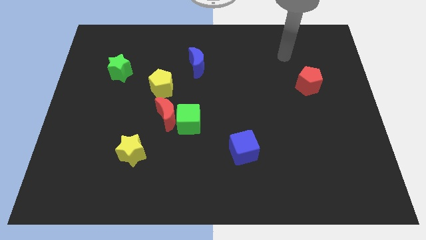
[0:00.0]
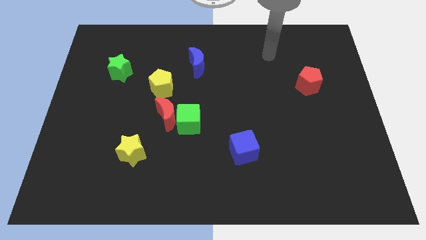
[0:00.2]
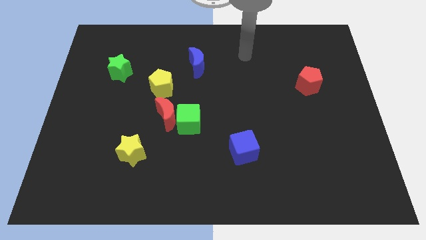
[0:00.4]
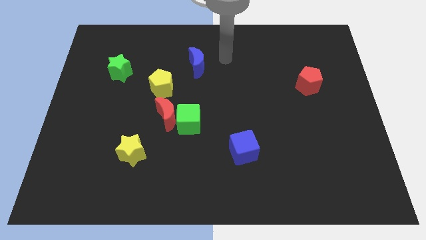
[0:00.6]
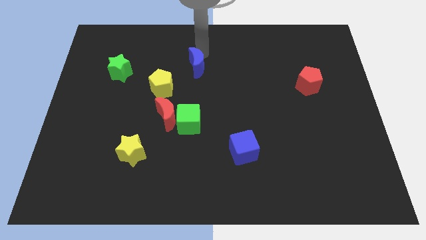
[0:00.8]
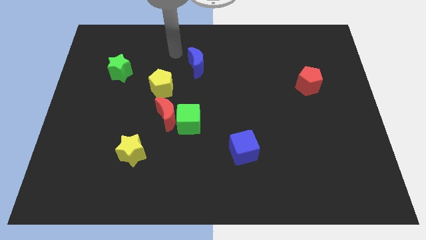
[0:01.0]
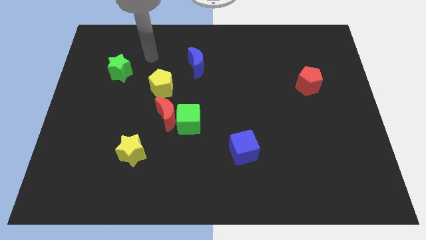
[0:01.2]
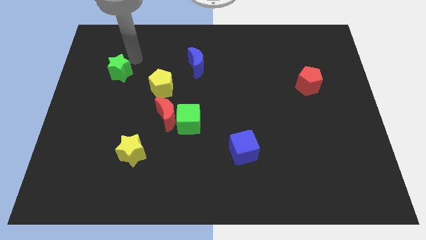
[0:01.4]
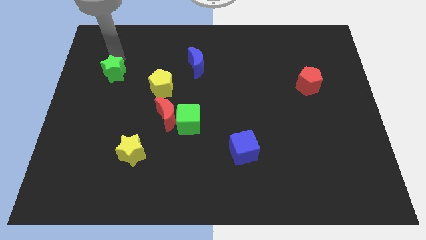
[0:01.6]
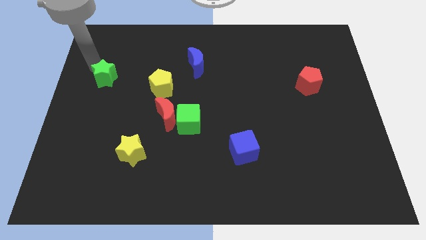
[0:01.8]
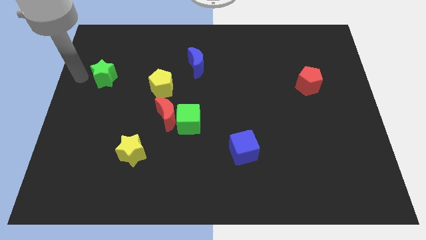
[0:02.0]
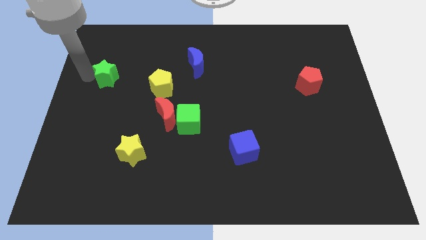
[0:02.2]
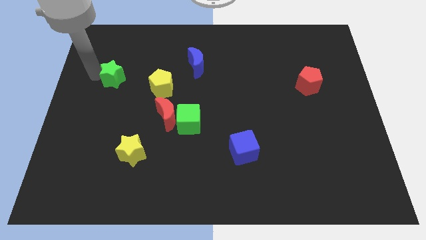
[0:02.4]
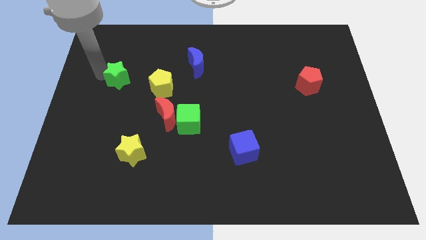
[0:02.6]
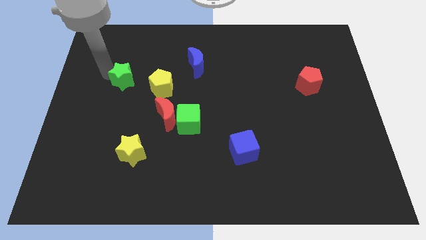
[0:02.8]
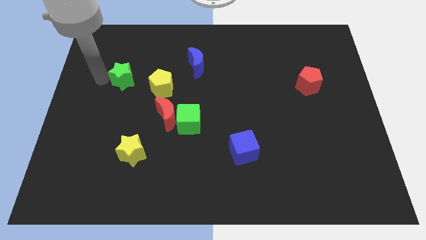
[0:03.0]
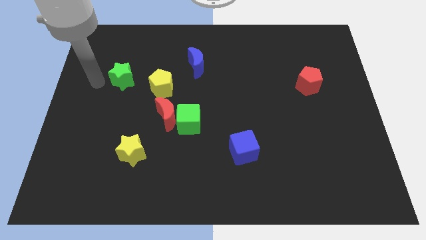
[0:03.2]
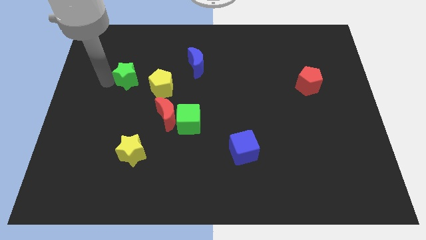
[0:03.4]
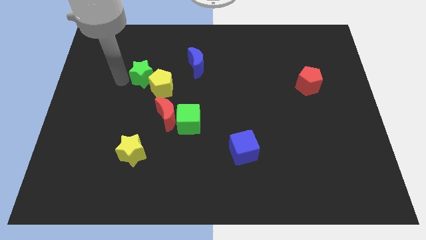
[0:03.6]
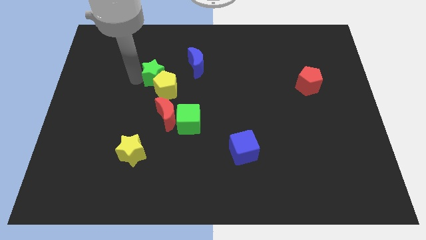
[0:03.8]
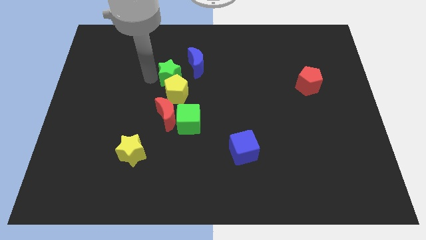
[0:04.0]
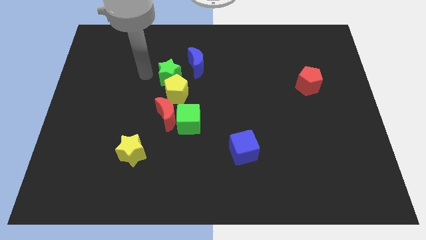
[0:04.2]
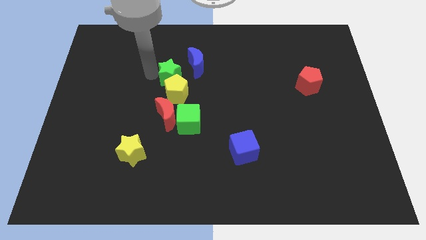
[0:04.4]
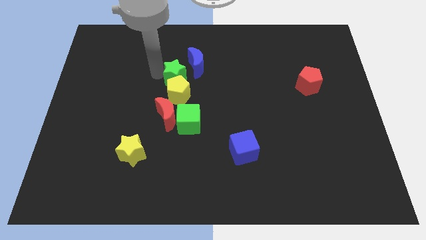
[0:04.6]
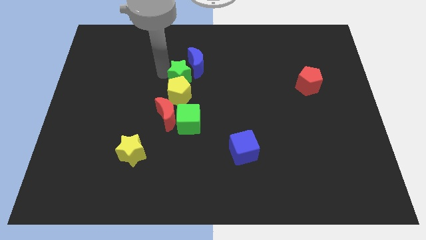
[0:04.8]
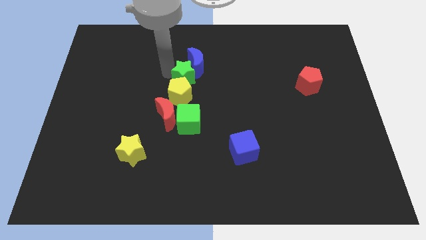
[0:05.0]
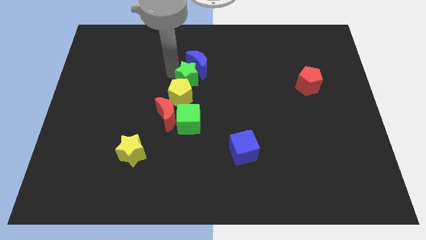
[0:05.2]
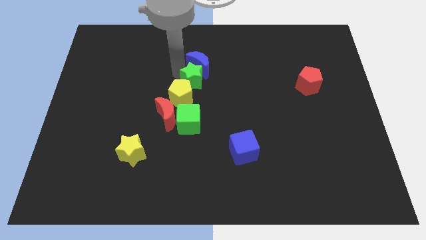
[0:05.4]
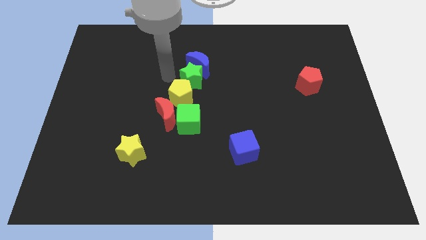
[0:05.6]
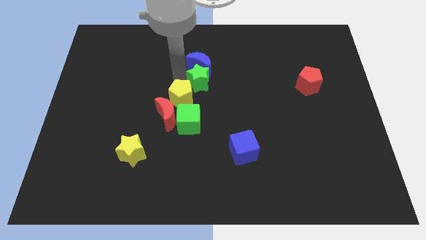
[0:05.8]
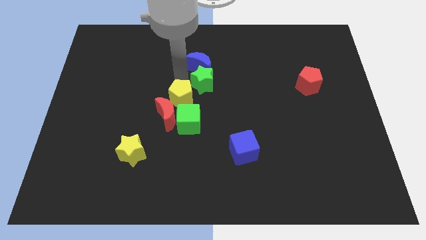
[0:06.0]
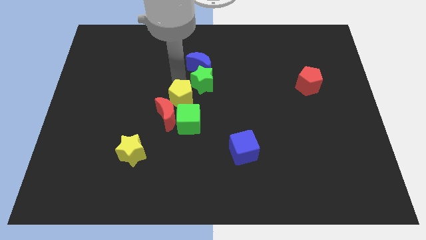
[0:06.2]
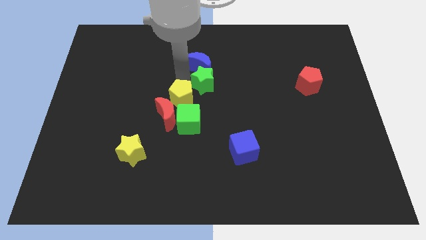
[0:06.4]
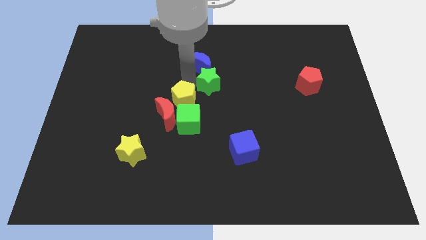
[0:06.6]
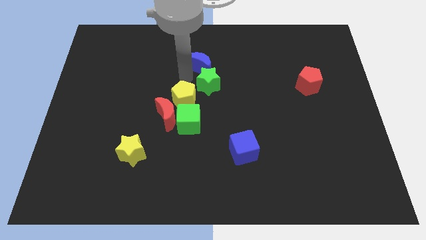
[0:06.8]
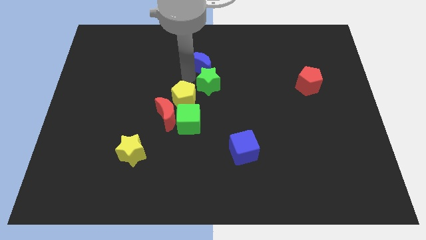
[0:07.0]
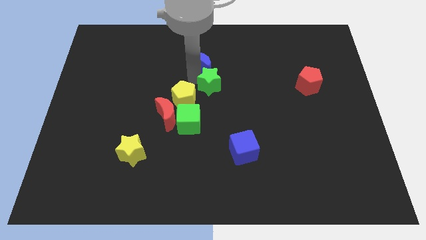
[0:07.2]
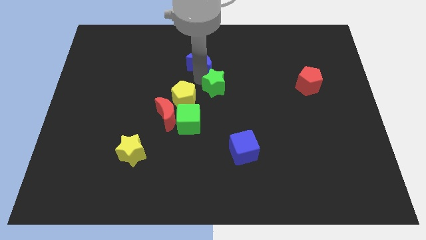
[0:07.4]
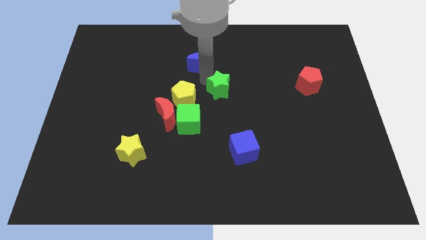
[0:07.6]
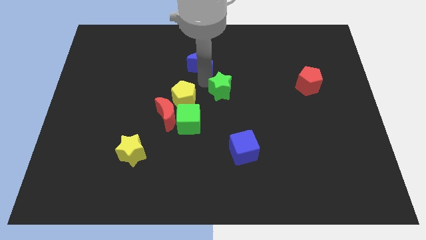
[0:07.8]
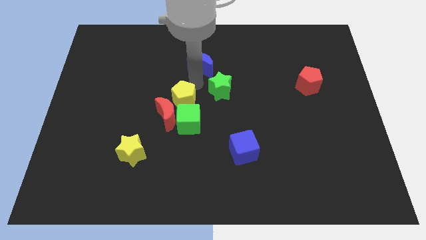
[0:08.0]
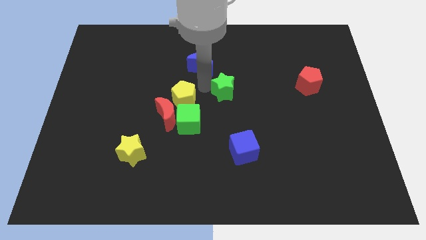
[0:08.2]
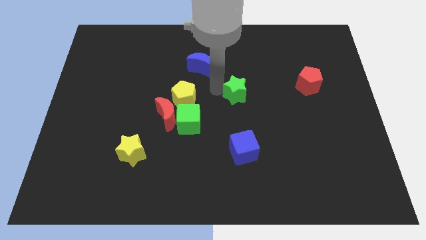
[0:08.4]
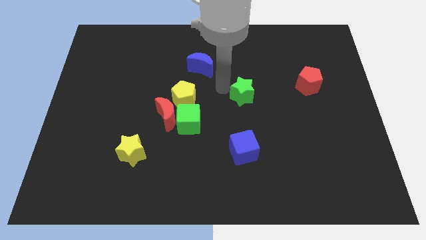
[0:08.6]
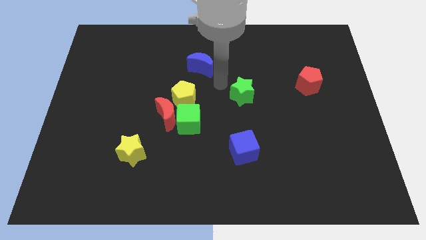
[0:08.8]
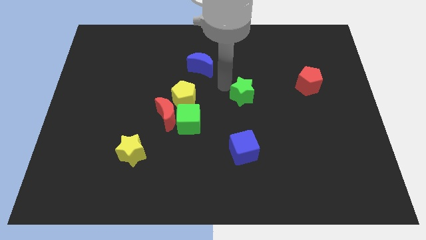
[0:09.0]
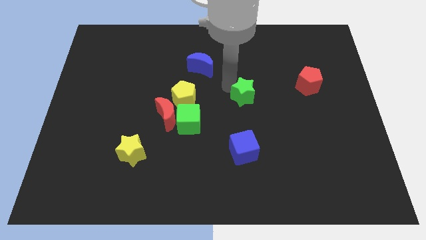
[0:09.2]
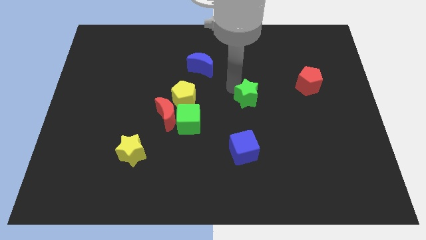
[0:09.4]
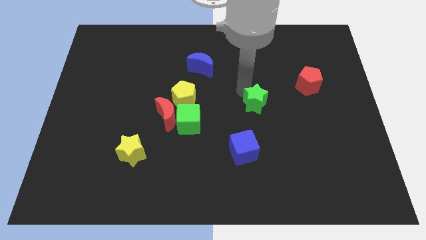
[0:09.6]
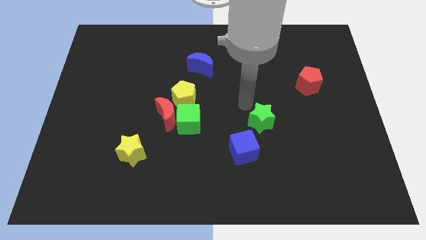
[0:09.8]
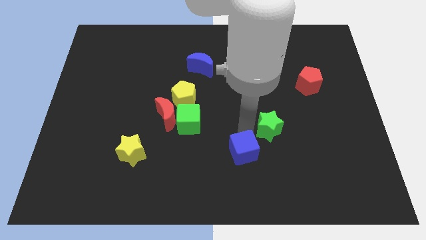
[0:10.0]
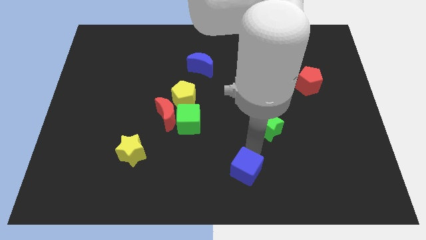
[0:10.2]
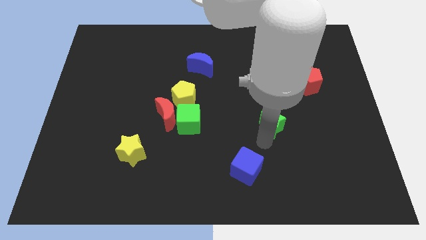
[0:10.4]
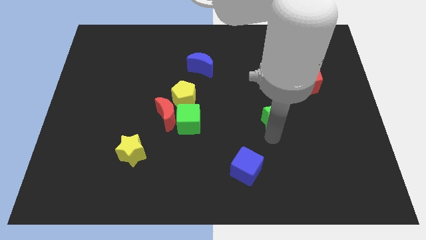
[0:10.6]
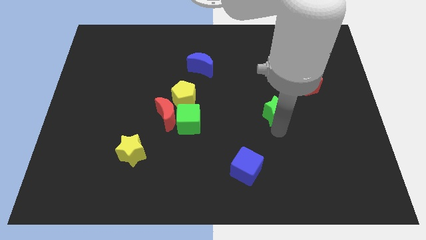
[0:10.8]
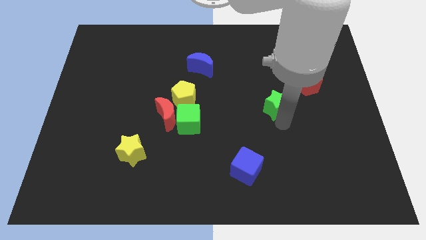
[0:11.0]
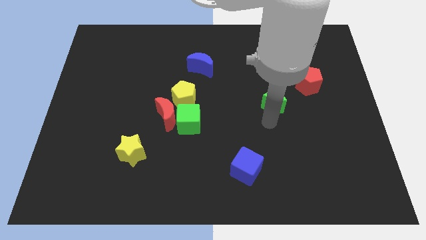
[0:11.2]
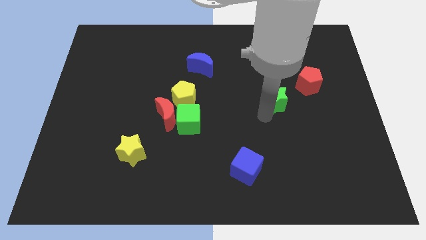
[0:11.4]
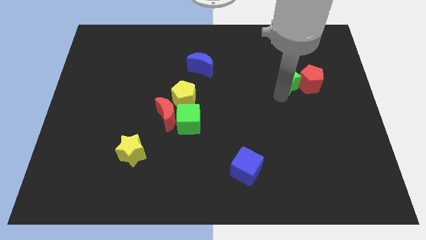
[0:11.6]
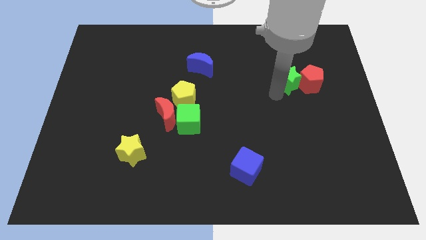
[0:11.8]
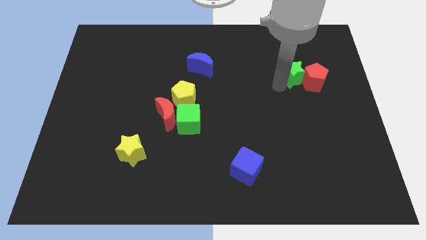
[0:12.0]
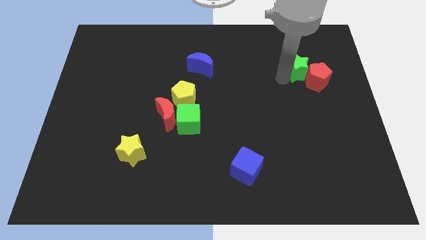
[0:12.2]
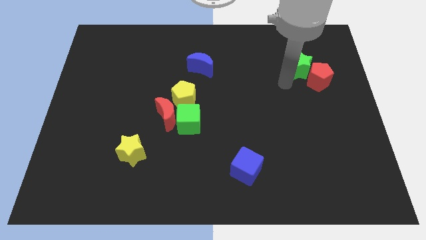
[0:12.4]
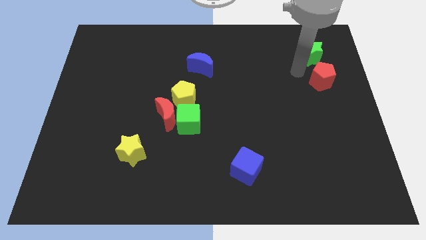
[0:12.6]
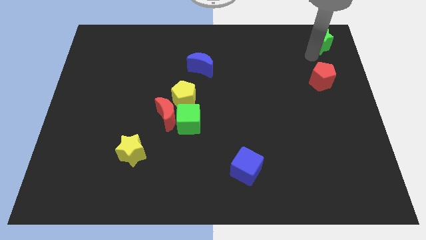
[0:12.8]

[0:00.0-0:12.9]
push the green star to the top right
